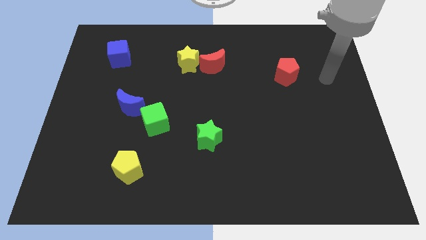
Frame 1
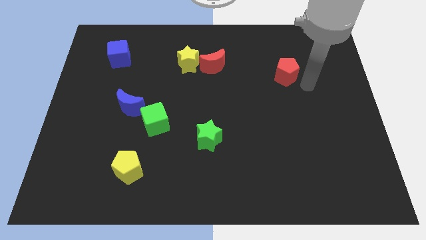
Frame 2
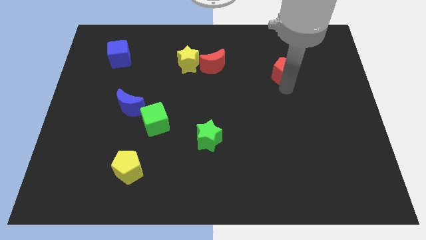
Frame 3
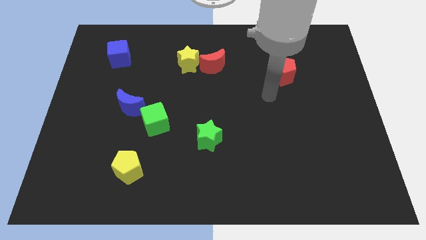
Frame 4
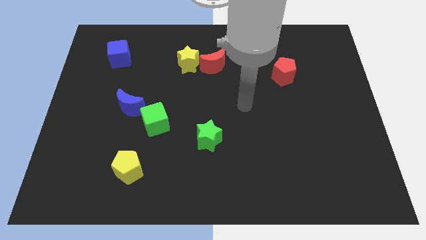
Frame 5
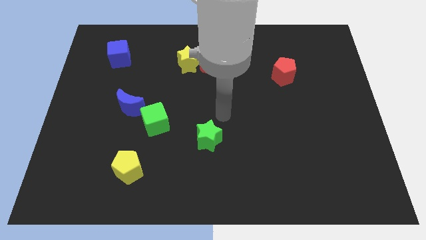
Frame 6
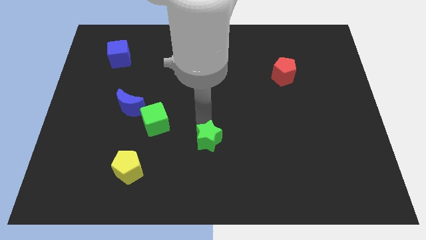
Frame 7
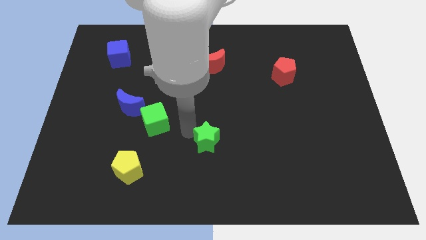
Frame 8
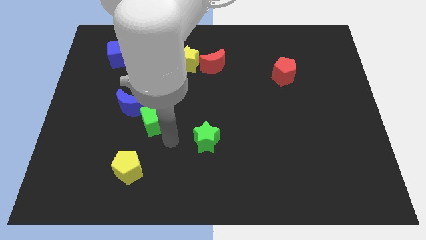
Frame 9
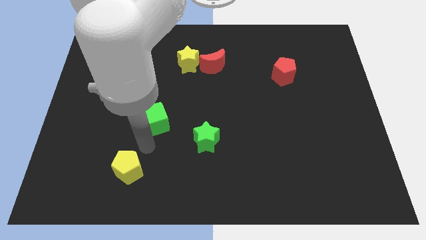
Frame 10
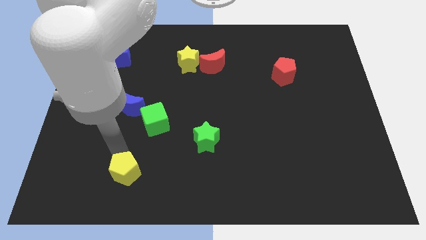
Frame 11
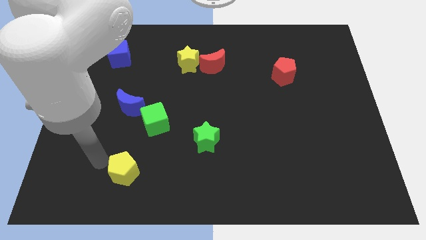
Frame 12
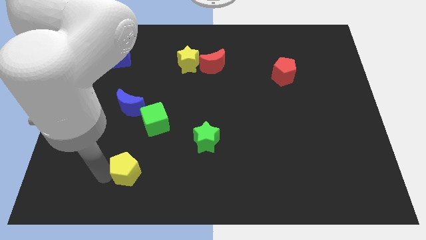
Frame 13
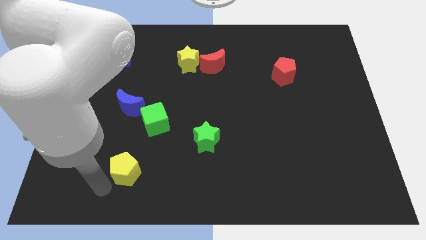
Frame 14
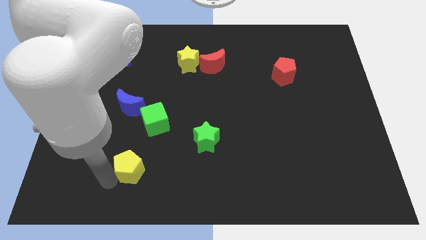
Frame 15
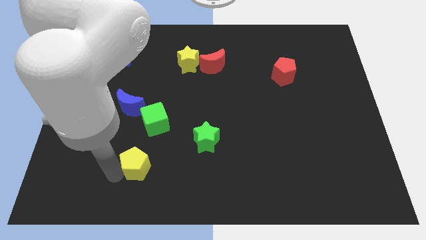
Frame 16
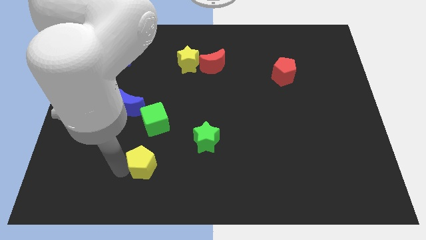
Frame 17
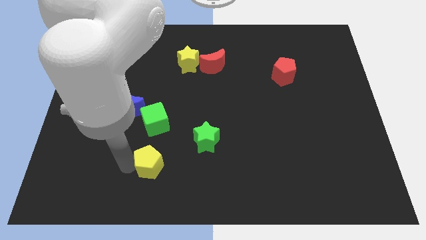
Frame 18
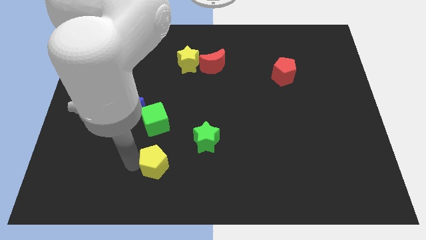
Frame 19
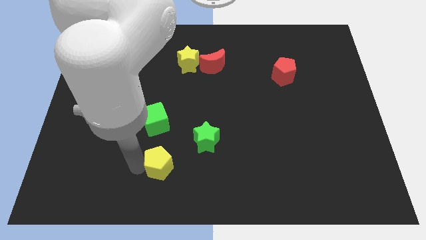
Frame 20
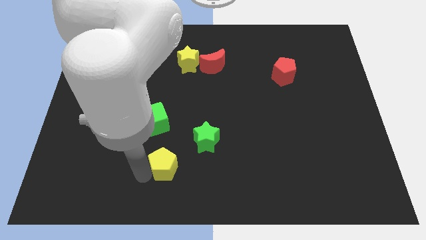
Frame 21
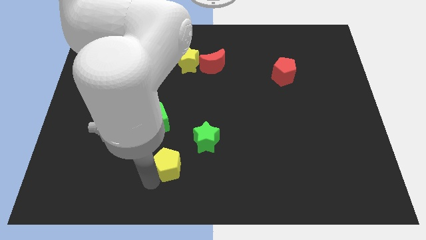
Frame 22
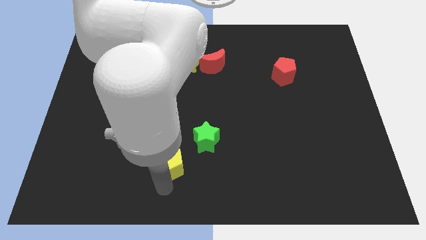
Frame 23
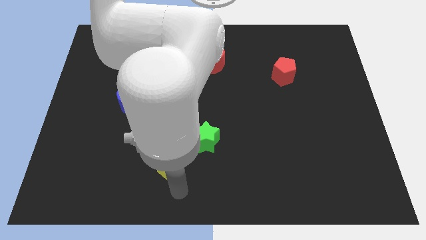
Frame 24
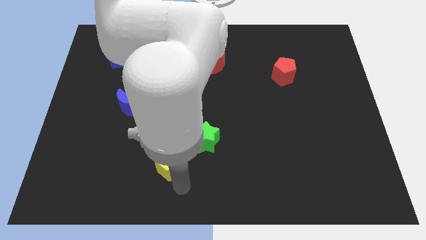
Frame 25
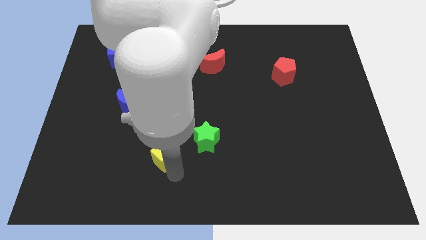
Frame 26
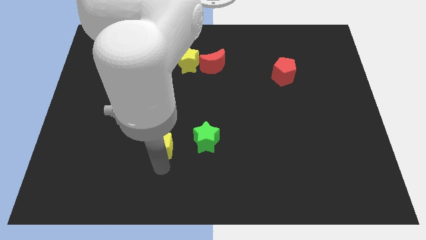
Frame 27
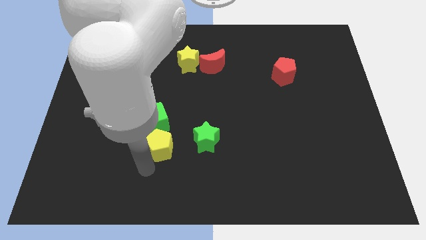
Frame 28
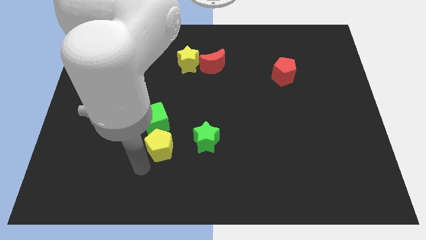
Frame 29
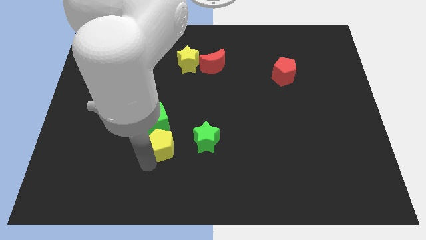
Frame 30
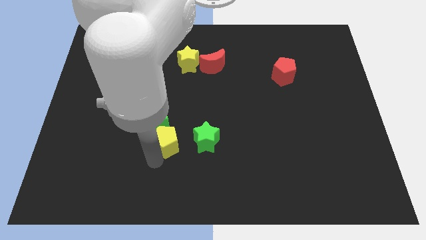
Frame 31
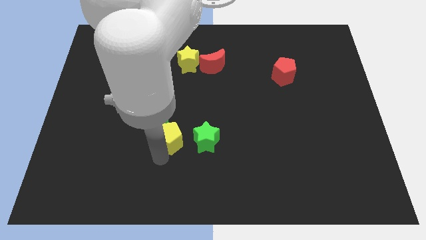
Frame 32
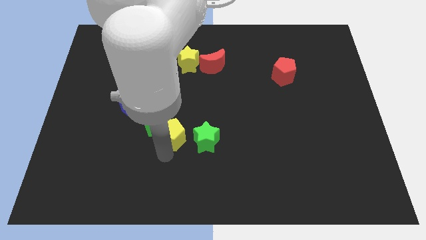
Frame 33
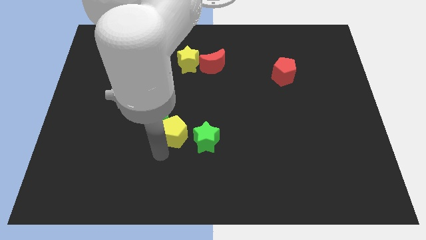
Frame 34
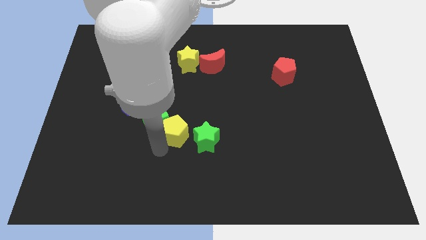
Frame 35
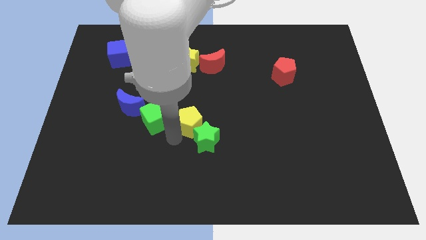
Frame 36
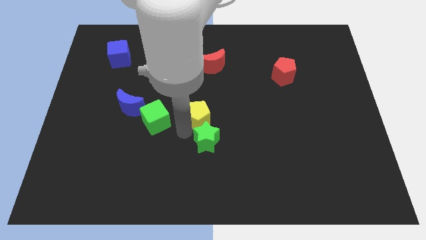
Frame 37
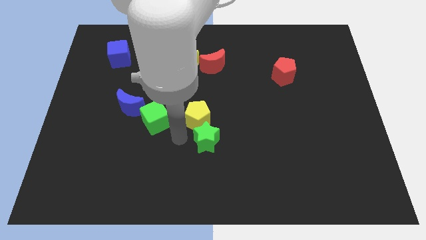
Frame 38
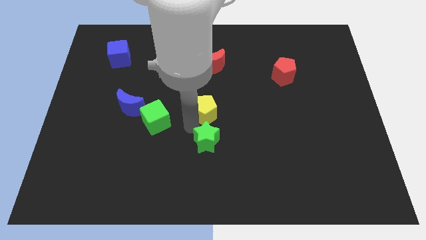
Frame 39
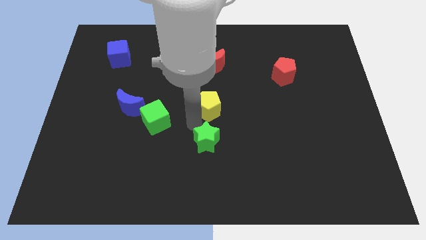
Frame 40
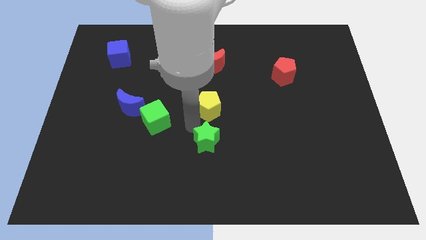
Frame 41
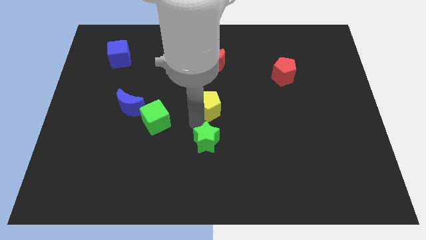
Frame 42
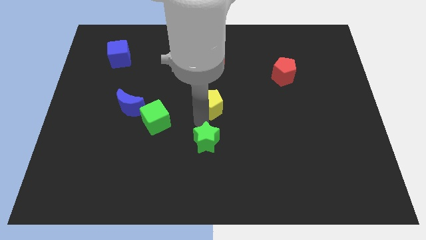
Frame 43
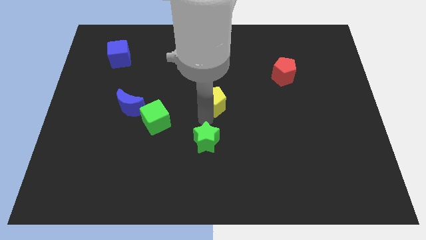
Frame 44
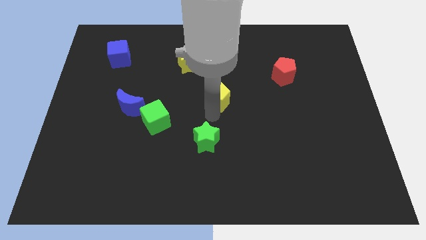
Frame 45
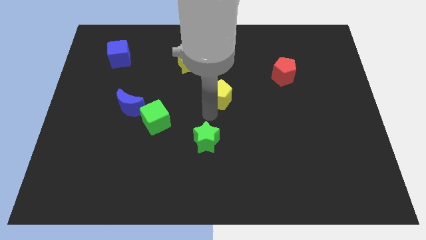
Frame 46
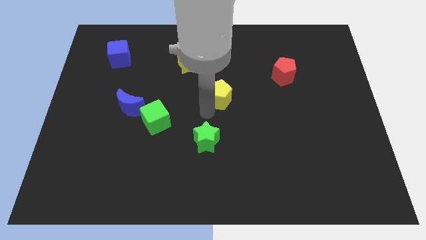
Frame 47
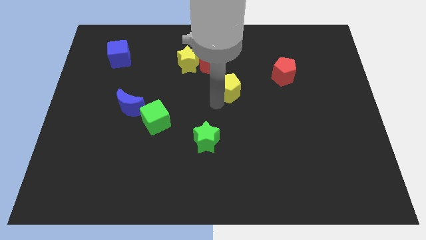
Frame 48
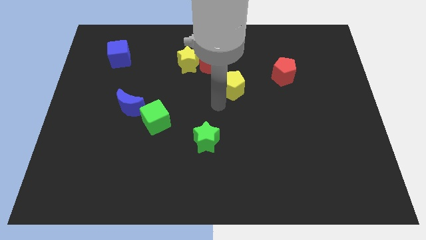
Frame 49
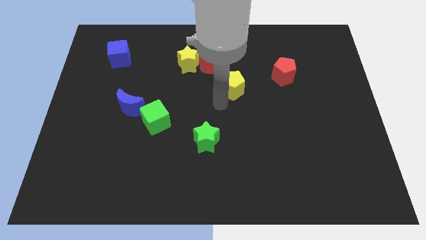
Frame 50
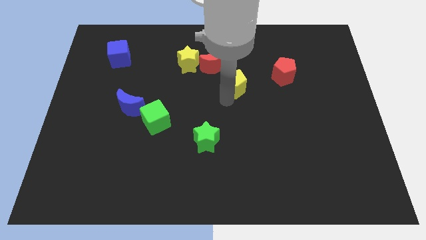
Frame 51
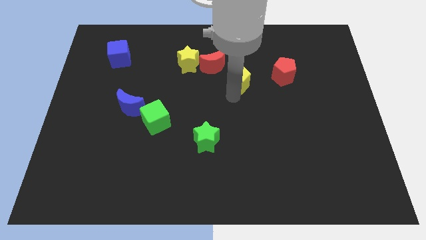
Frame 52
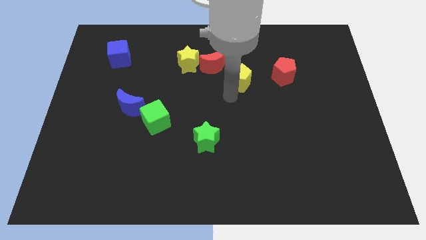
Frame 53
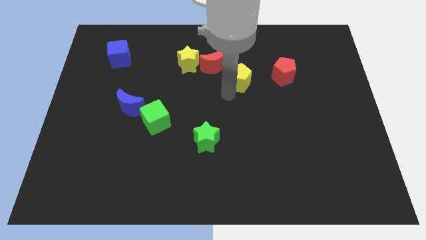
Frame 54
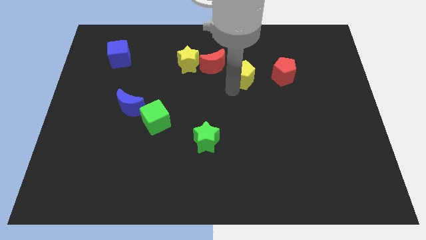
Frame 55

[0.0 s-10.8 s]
push the yellow pentagon right of the red moon

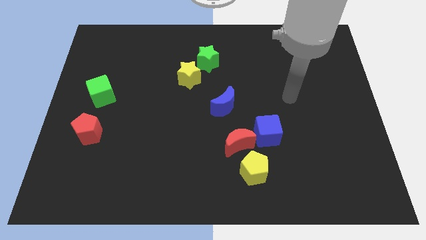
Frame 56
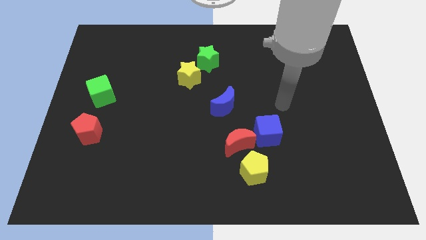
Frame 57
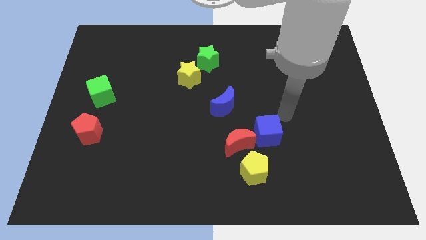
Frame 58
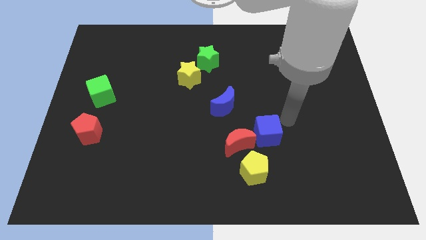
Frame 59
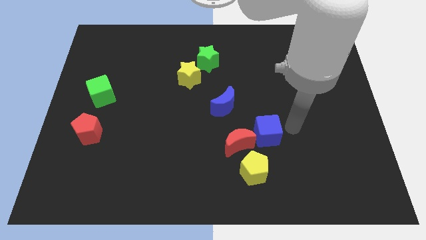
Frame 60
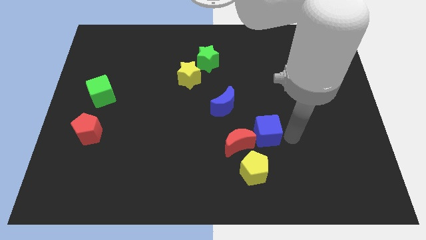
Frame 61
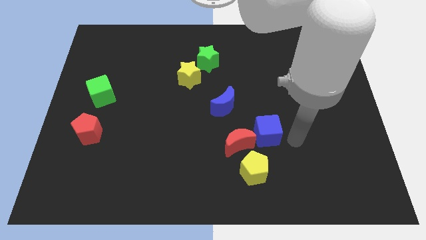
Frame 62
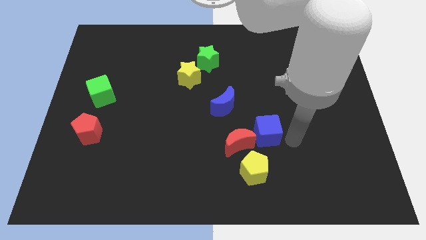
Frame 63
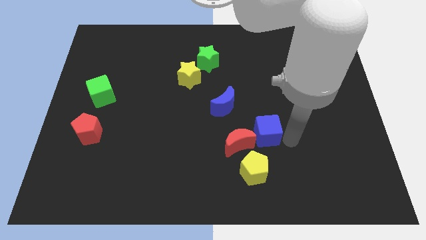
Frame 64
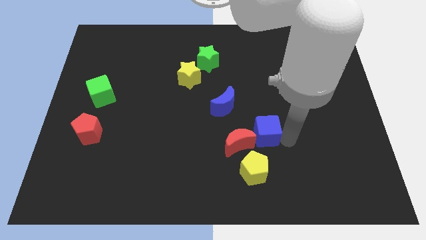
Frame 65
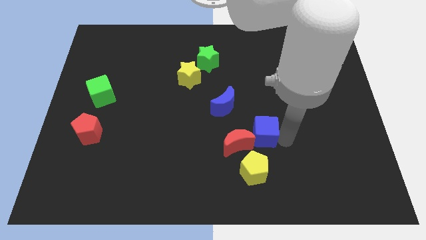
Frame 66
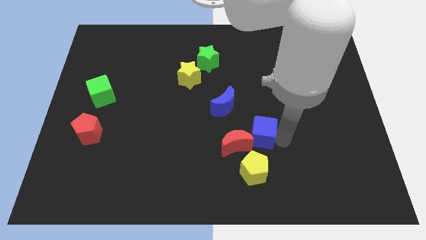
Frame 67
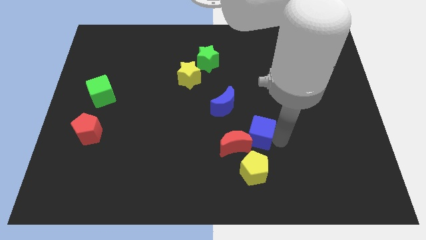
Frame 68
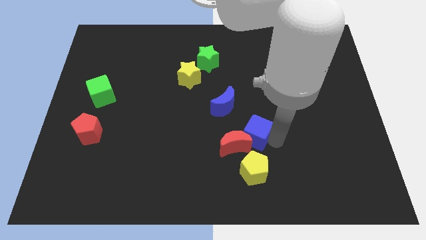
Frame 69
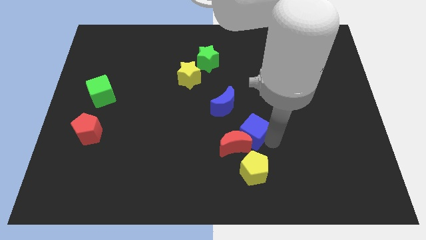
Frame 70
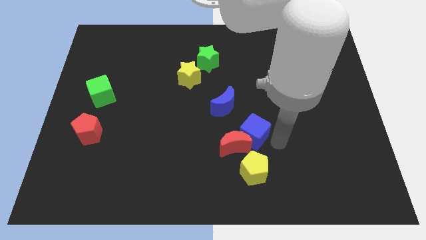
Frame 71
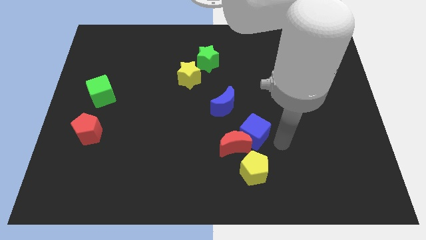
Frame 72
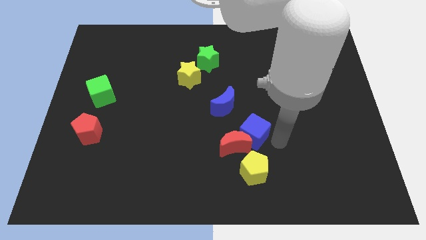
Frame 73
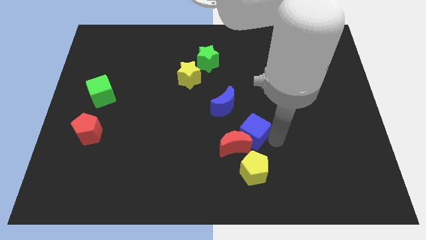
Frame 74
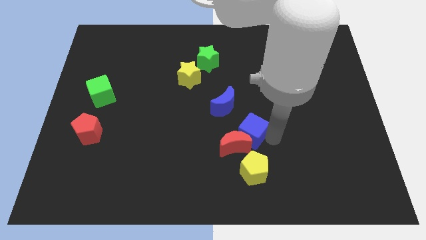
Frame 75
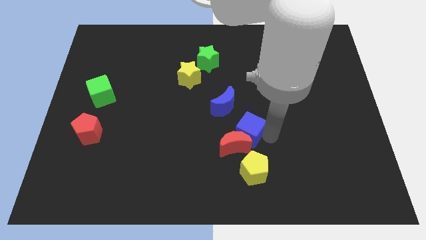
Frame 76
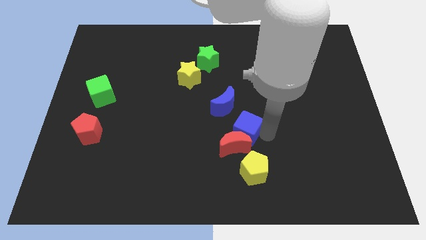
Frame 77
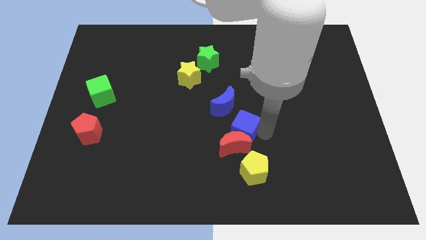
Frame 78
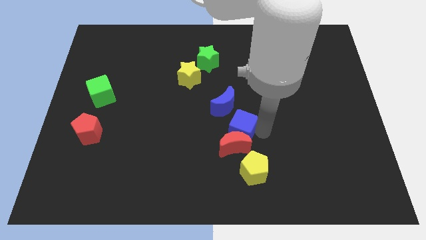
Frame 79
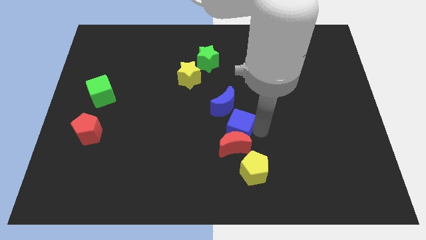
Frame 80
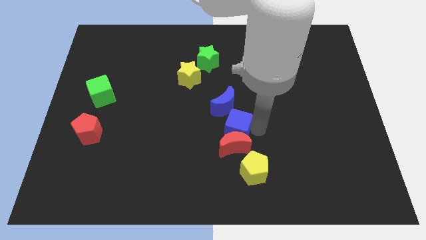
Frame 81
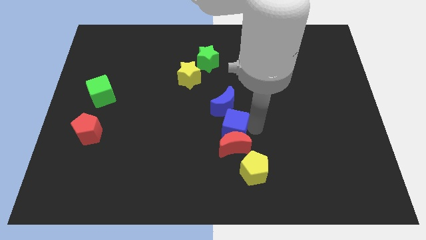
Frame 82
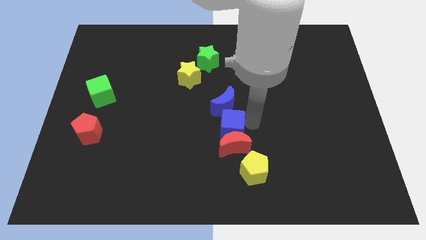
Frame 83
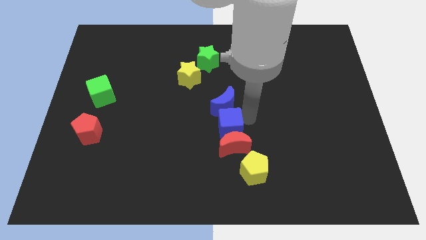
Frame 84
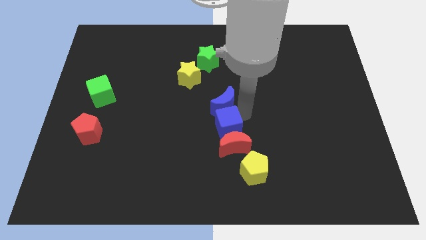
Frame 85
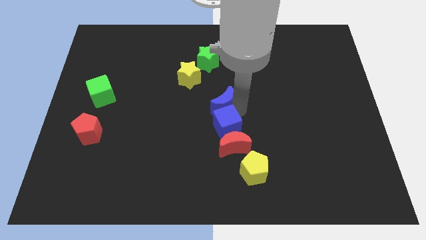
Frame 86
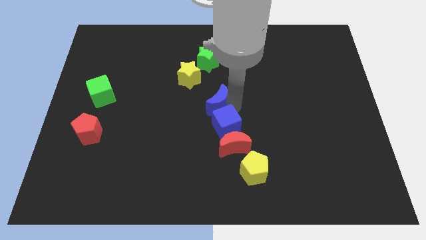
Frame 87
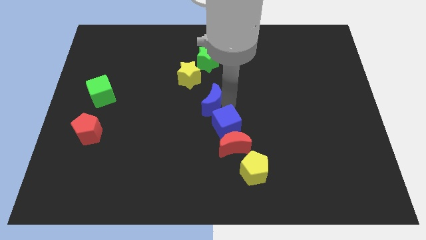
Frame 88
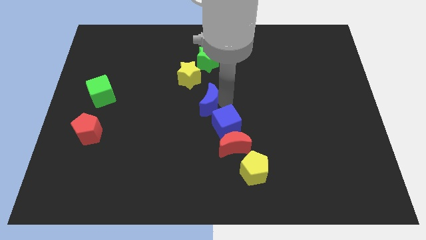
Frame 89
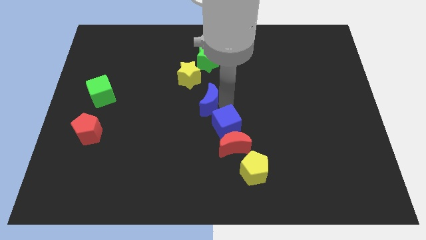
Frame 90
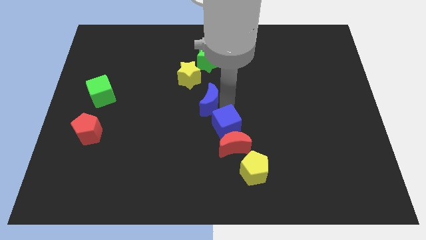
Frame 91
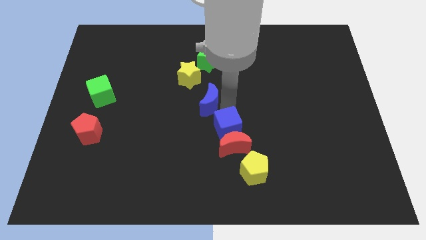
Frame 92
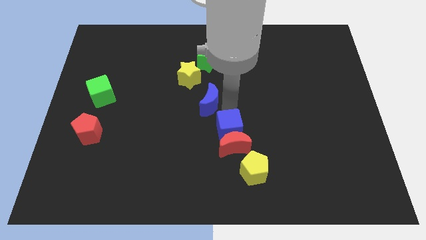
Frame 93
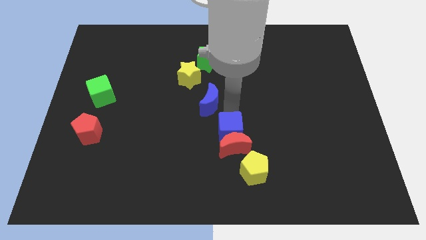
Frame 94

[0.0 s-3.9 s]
slide the blue cube to the top left of the yellow pentagon
